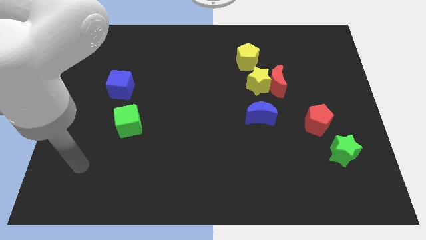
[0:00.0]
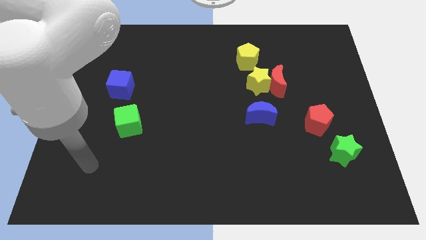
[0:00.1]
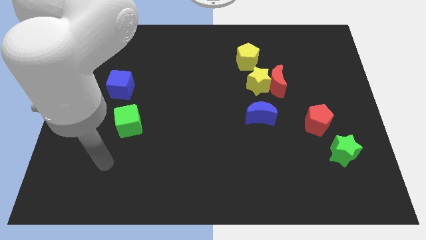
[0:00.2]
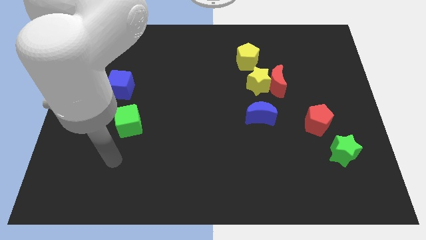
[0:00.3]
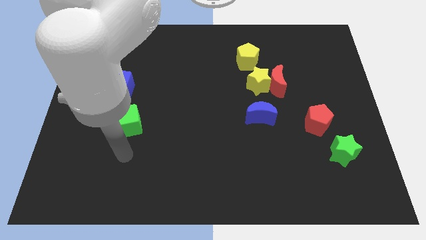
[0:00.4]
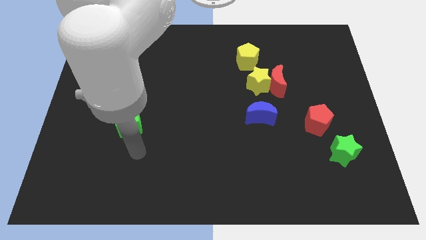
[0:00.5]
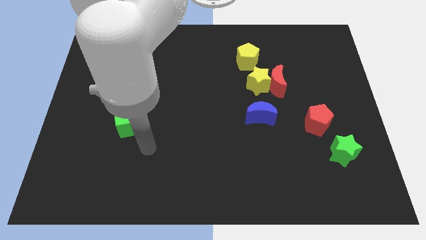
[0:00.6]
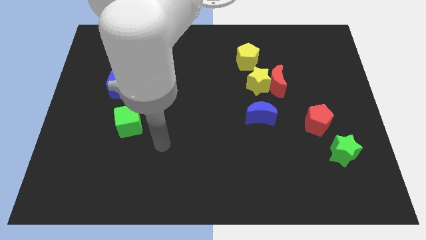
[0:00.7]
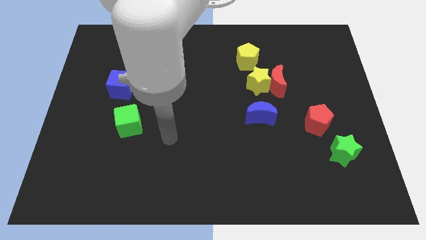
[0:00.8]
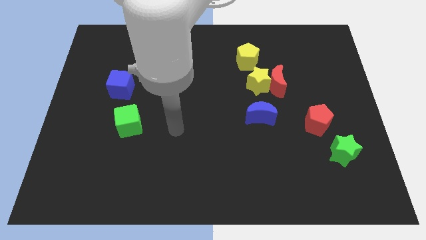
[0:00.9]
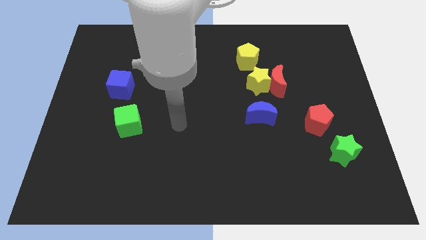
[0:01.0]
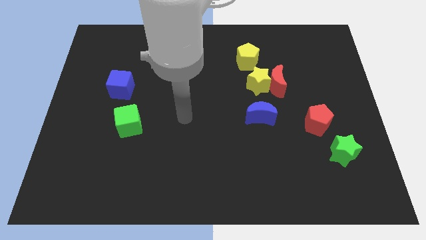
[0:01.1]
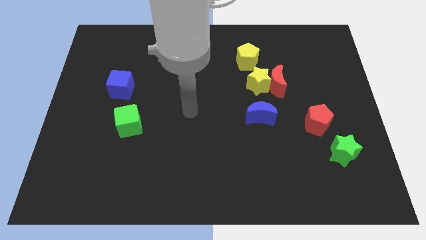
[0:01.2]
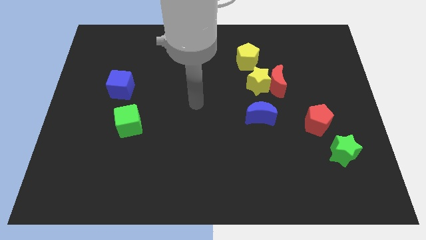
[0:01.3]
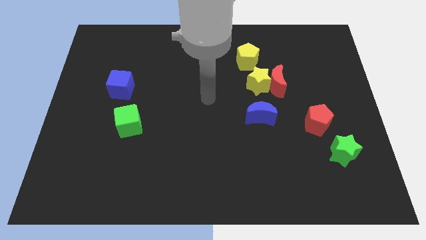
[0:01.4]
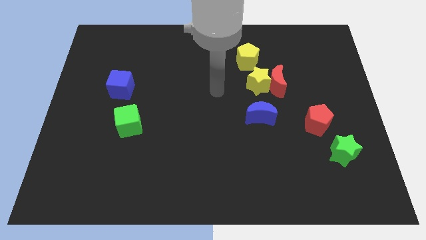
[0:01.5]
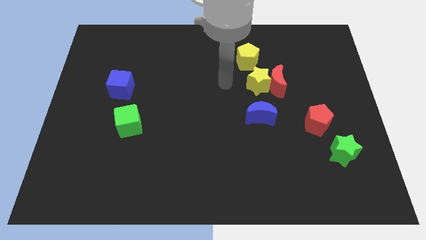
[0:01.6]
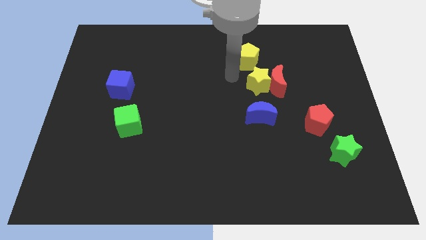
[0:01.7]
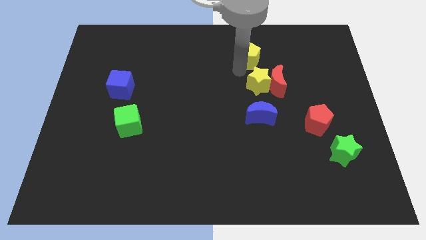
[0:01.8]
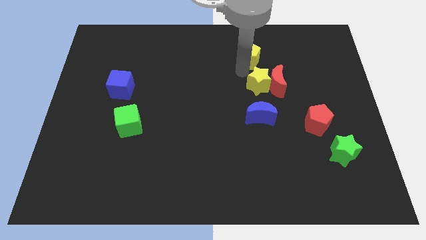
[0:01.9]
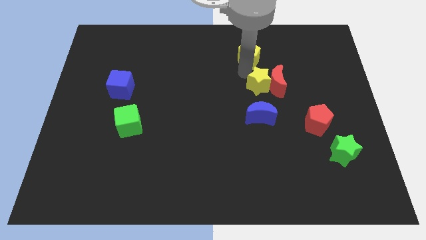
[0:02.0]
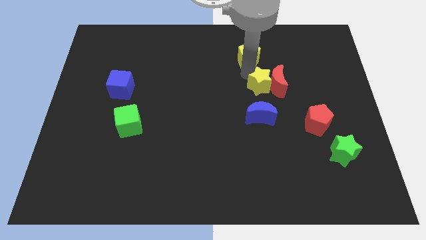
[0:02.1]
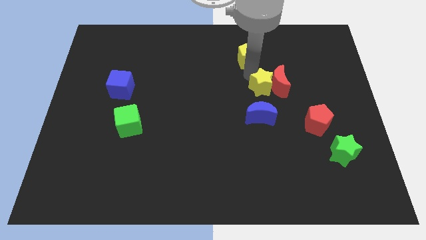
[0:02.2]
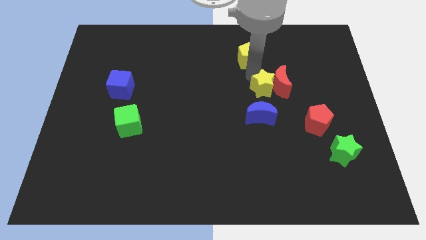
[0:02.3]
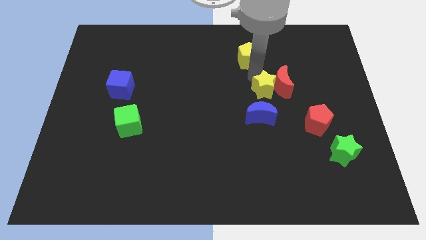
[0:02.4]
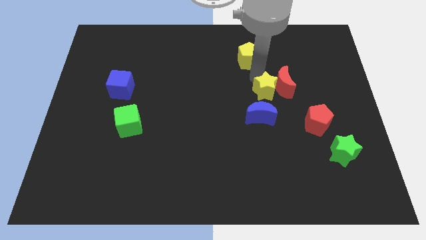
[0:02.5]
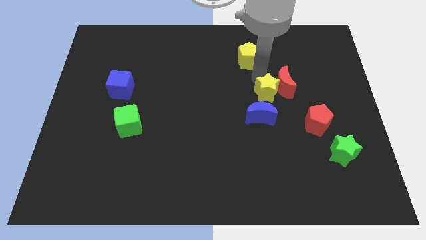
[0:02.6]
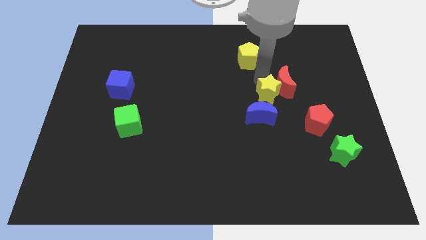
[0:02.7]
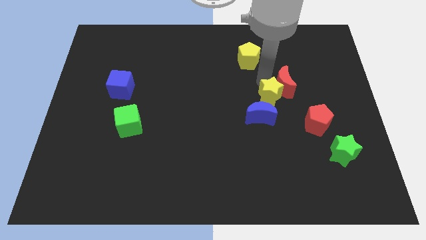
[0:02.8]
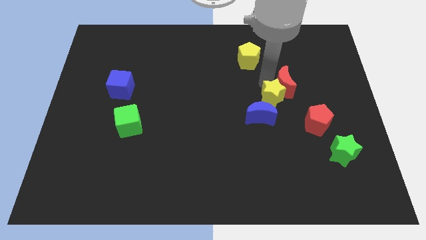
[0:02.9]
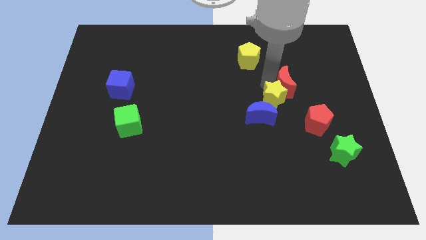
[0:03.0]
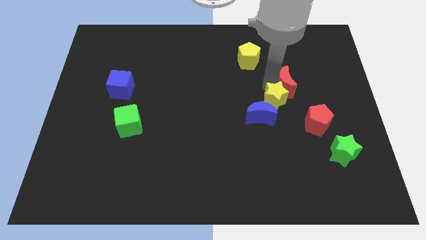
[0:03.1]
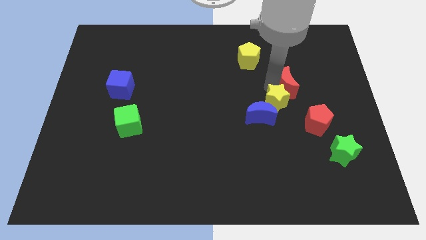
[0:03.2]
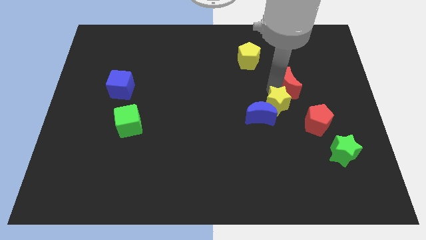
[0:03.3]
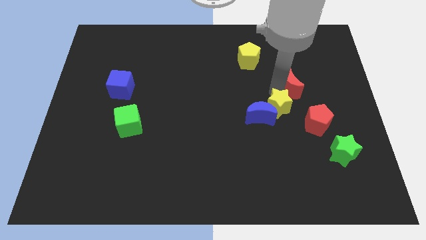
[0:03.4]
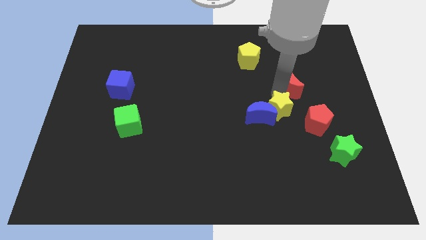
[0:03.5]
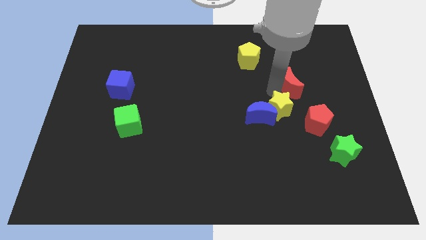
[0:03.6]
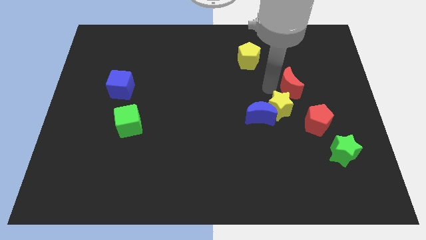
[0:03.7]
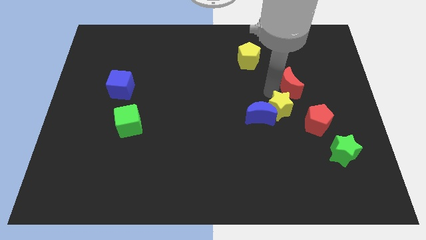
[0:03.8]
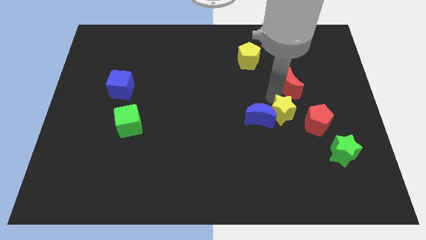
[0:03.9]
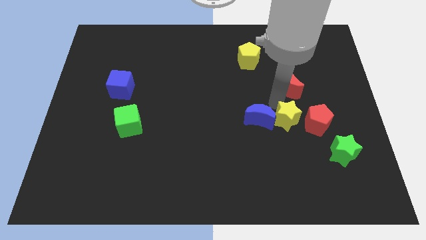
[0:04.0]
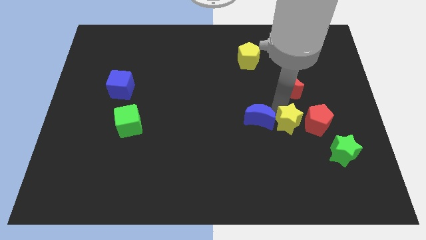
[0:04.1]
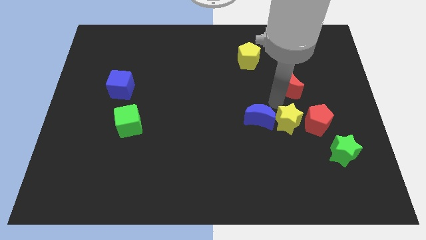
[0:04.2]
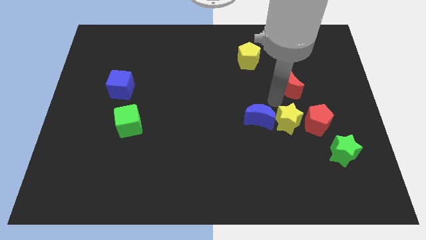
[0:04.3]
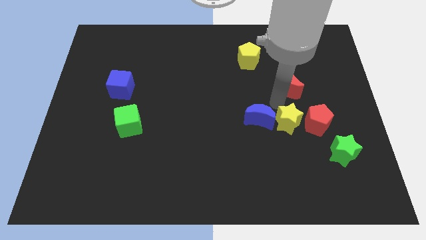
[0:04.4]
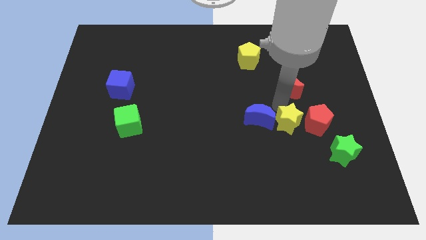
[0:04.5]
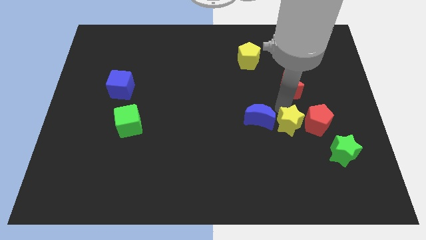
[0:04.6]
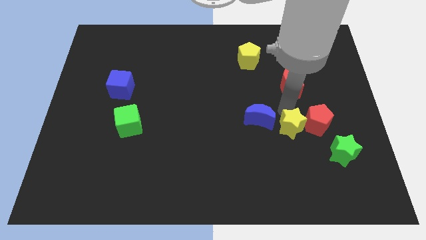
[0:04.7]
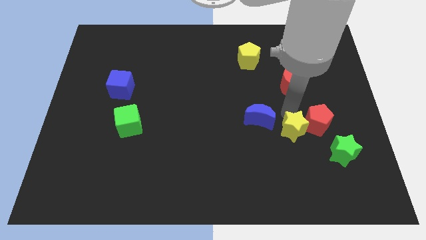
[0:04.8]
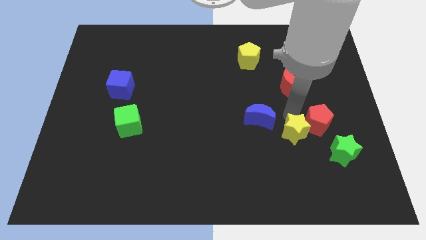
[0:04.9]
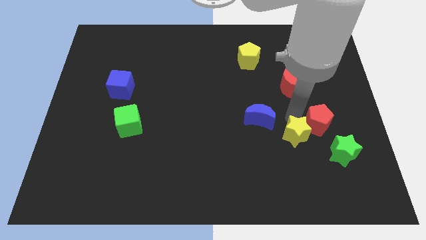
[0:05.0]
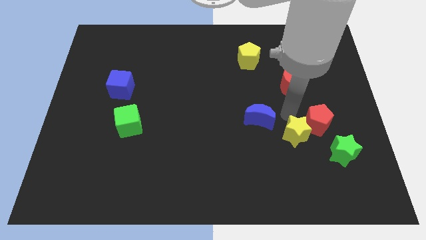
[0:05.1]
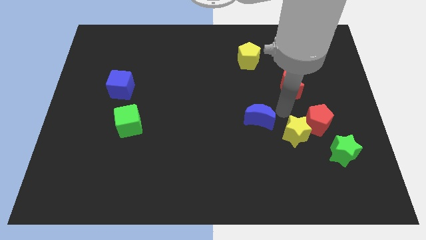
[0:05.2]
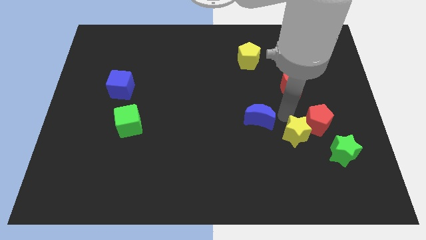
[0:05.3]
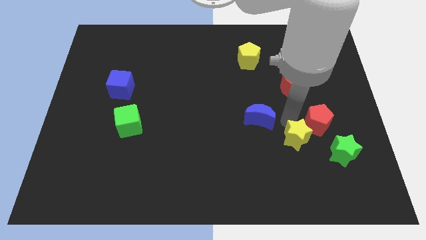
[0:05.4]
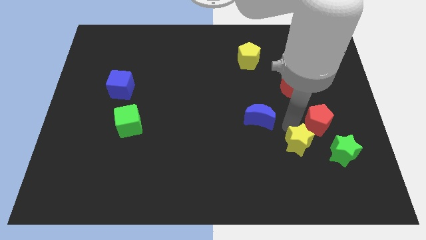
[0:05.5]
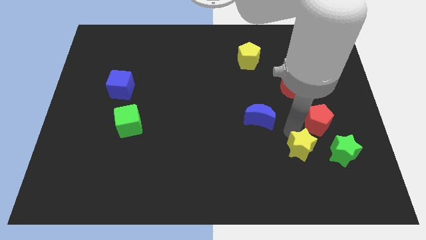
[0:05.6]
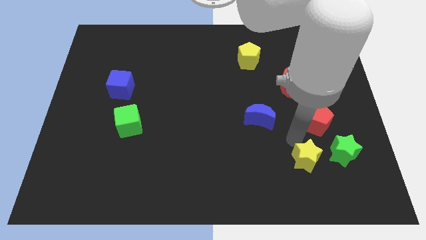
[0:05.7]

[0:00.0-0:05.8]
move the yellow star to the bottom left side of the green star

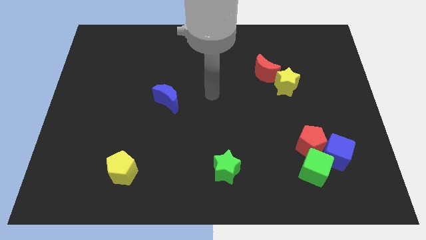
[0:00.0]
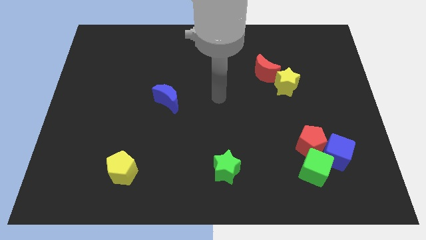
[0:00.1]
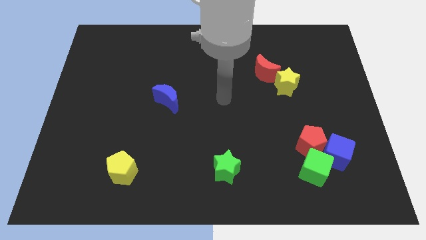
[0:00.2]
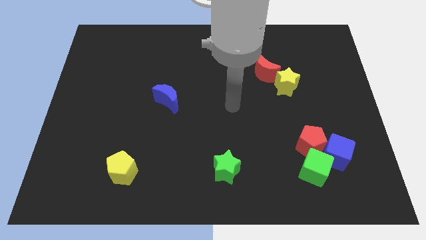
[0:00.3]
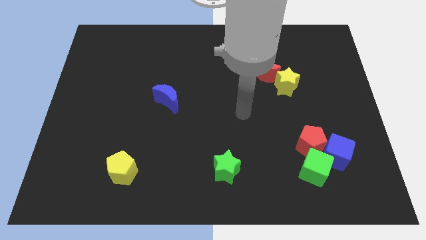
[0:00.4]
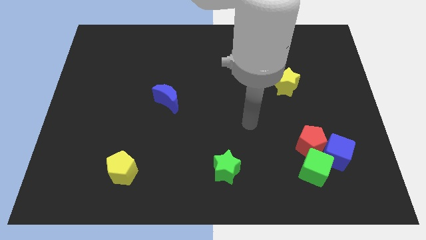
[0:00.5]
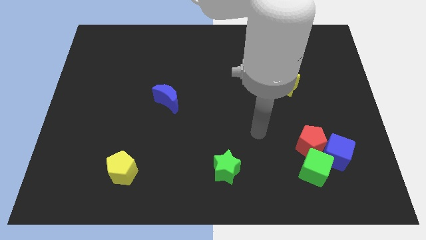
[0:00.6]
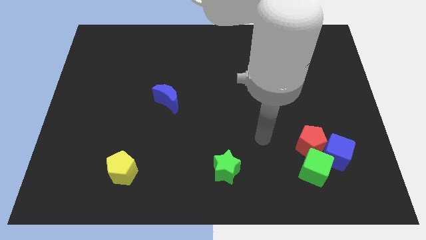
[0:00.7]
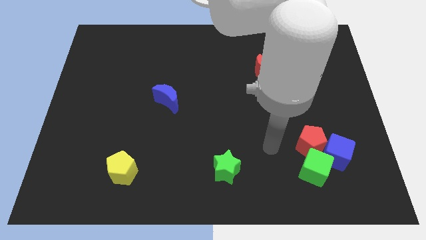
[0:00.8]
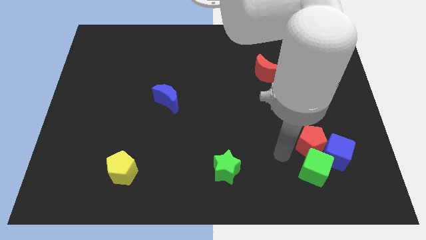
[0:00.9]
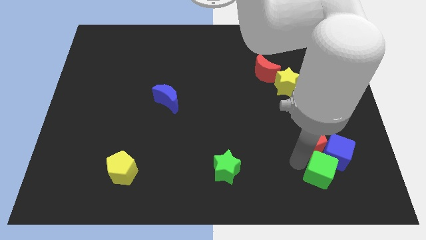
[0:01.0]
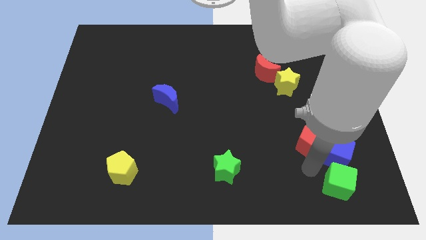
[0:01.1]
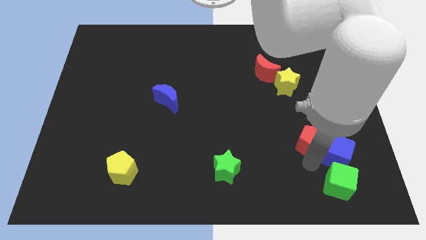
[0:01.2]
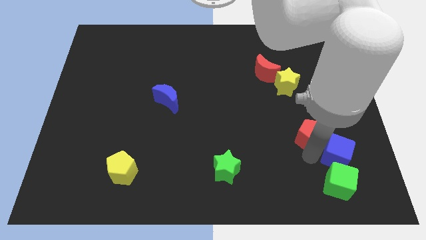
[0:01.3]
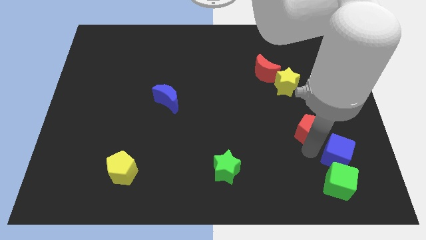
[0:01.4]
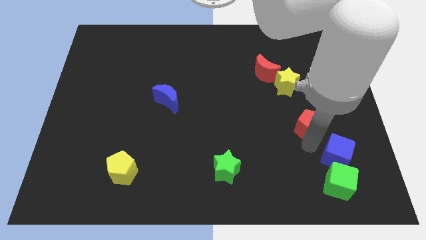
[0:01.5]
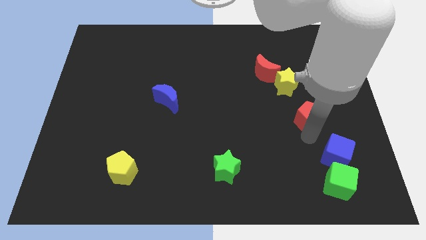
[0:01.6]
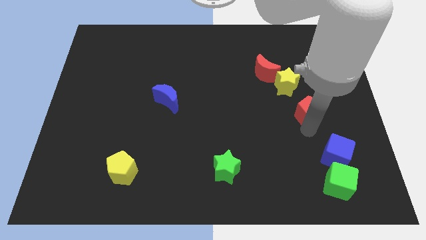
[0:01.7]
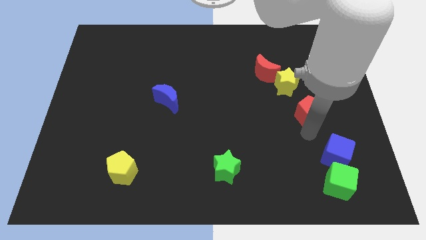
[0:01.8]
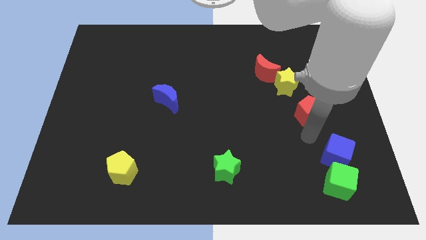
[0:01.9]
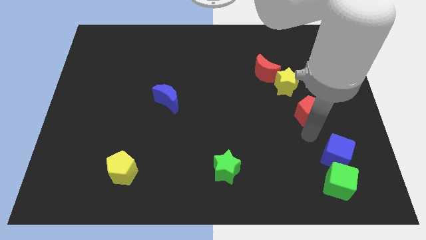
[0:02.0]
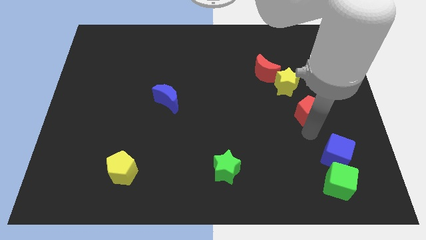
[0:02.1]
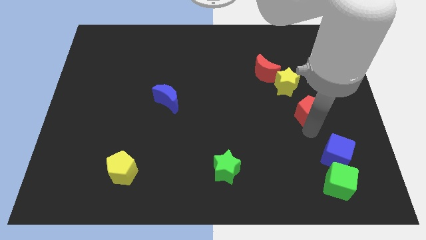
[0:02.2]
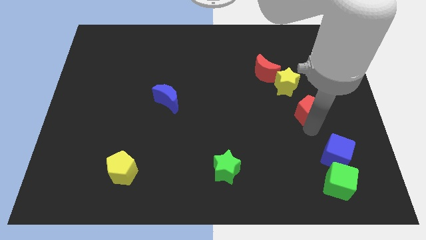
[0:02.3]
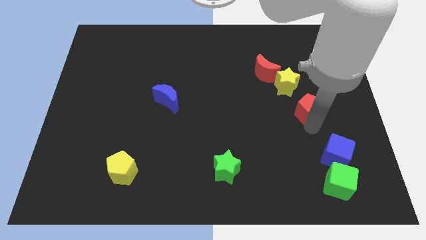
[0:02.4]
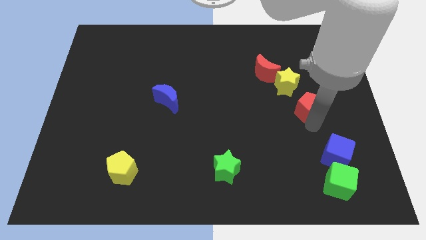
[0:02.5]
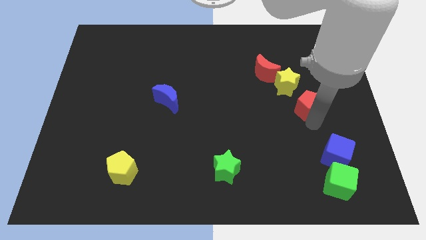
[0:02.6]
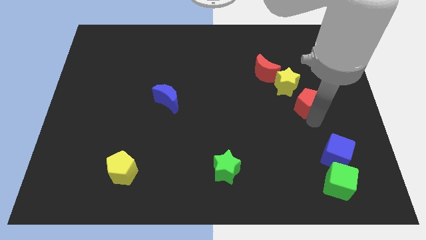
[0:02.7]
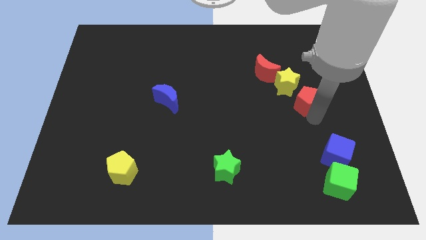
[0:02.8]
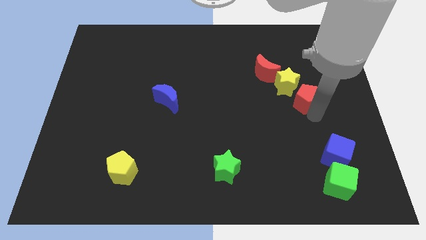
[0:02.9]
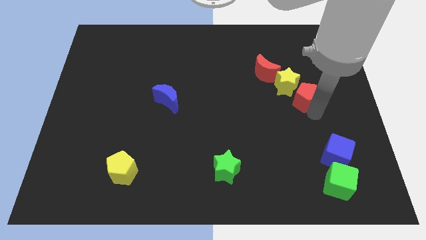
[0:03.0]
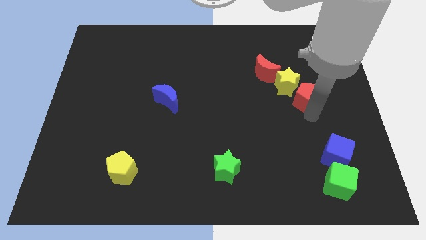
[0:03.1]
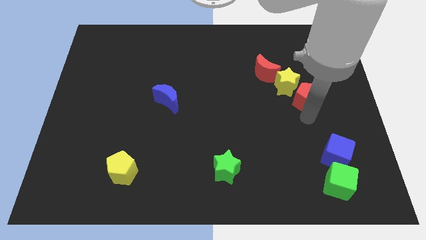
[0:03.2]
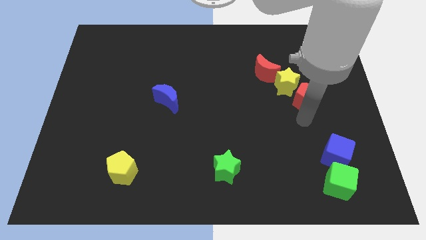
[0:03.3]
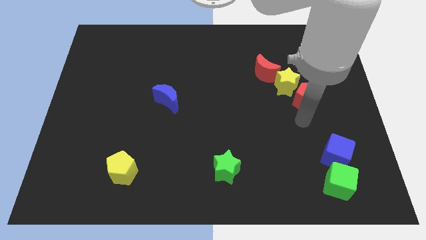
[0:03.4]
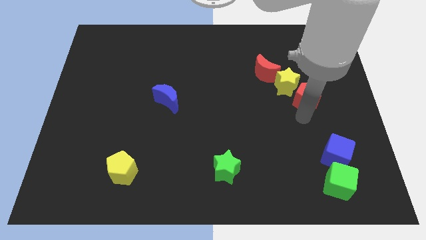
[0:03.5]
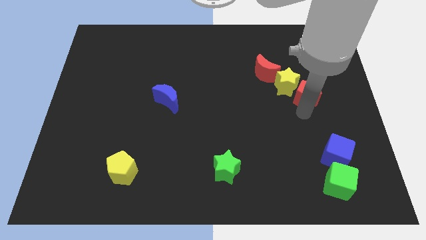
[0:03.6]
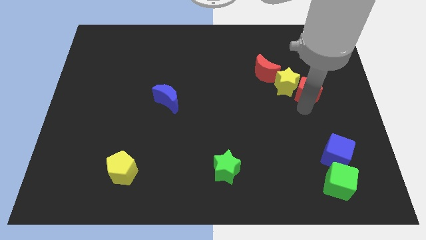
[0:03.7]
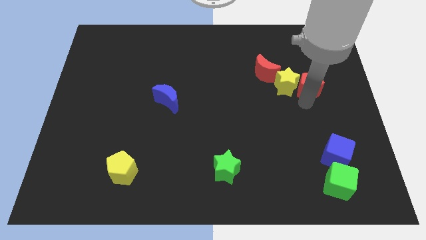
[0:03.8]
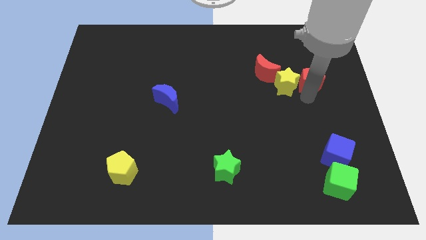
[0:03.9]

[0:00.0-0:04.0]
move the red pentagon to the right side of the red moon
